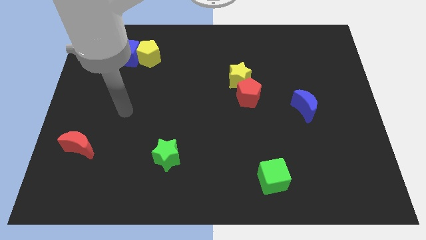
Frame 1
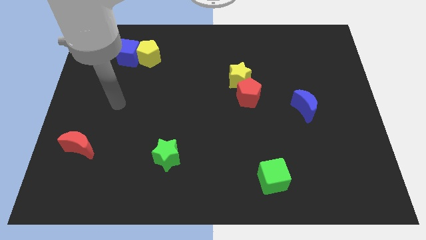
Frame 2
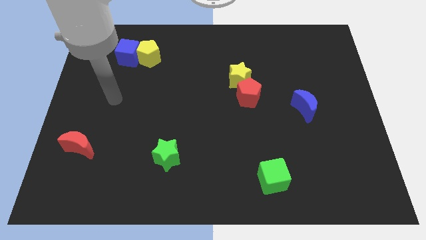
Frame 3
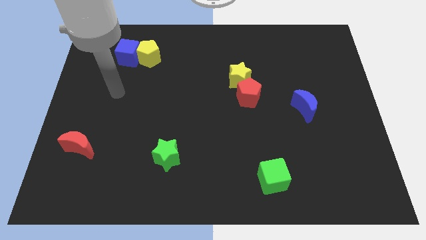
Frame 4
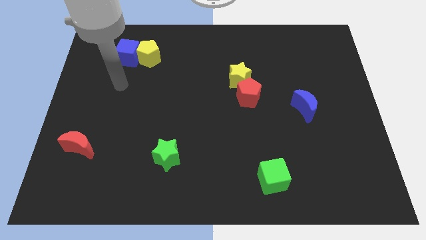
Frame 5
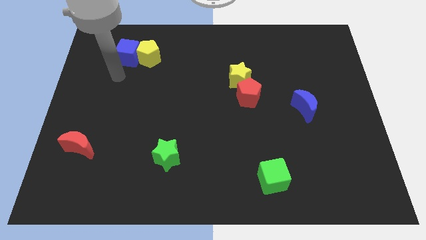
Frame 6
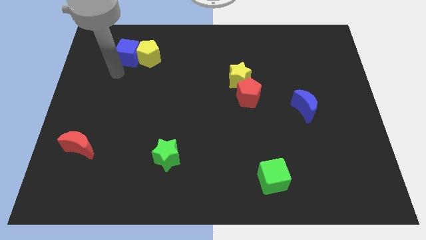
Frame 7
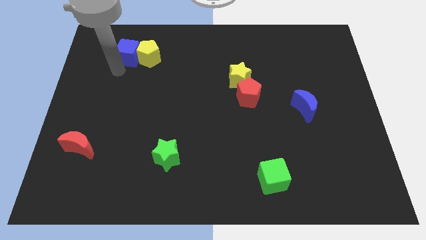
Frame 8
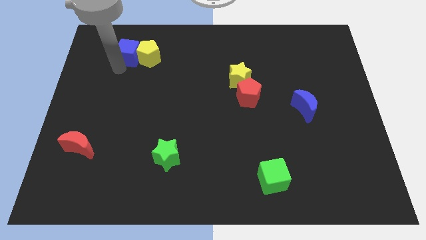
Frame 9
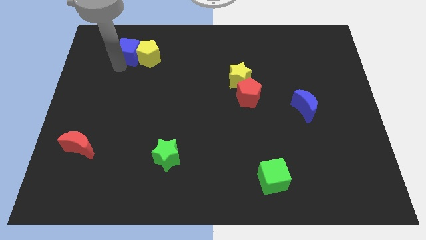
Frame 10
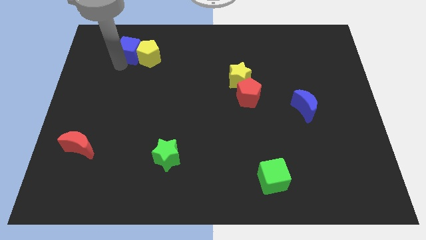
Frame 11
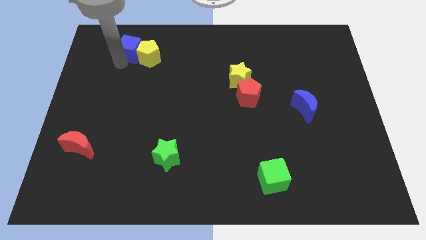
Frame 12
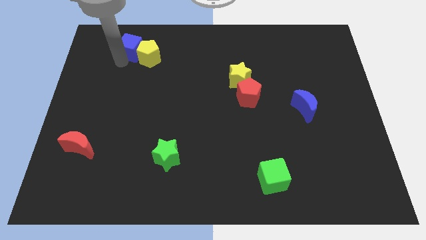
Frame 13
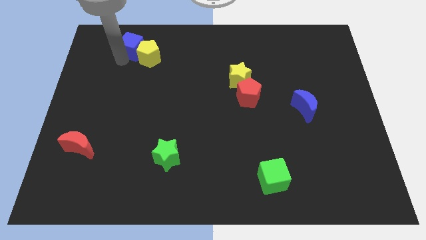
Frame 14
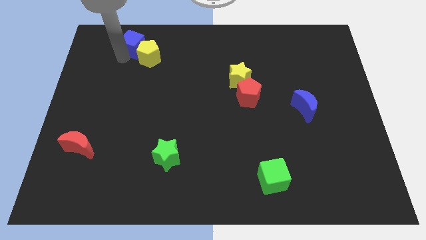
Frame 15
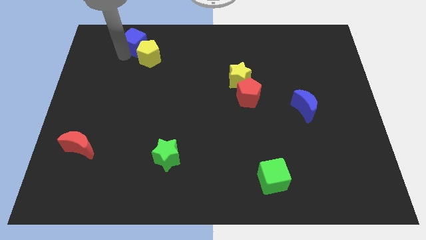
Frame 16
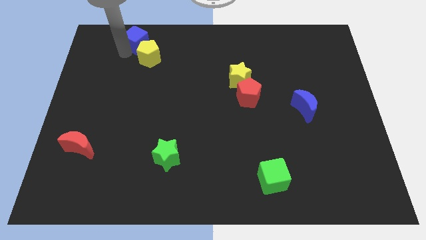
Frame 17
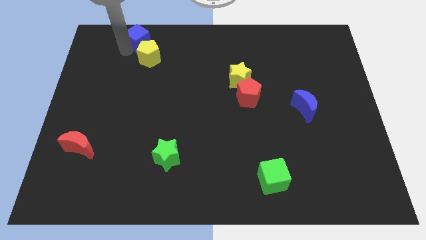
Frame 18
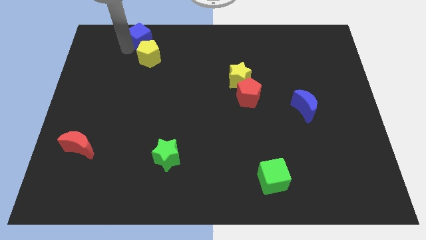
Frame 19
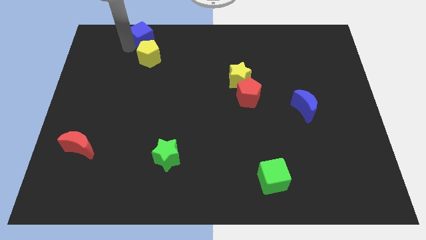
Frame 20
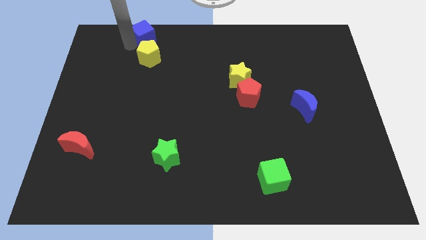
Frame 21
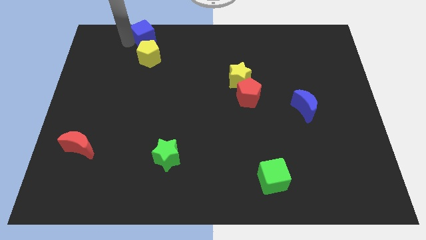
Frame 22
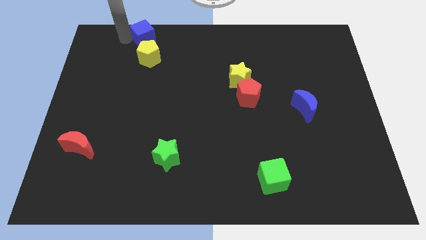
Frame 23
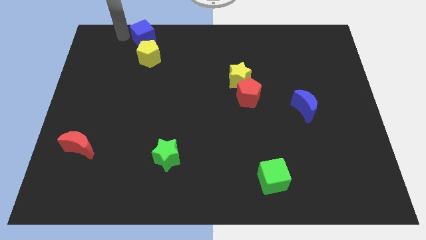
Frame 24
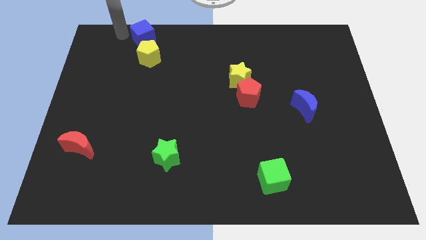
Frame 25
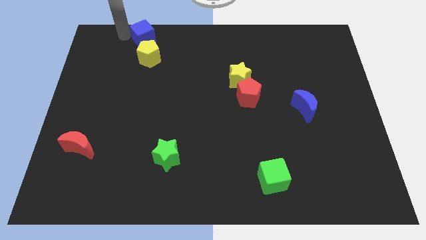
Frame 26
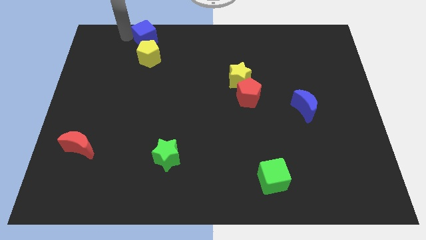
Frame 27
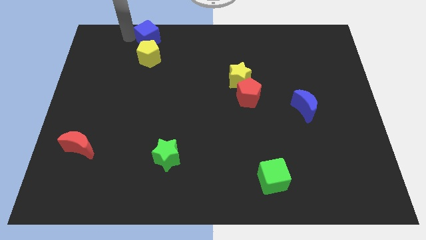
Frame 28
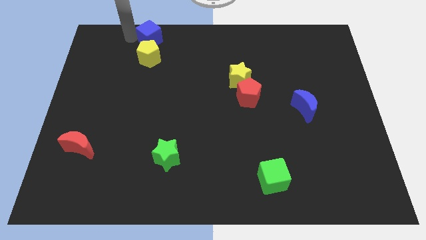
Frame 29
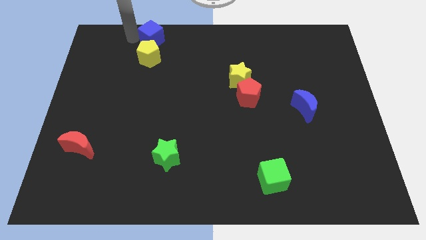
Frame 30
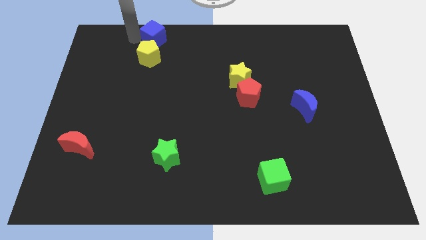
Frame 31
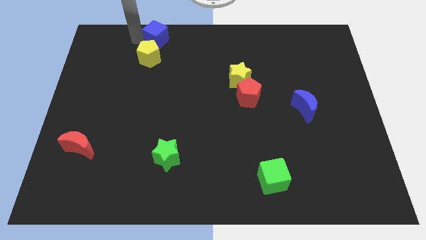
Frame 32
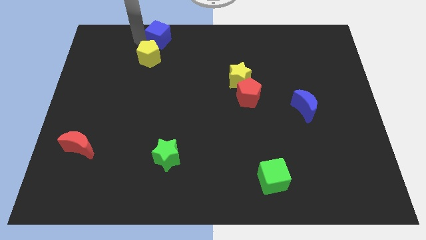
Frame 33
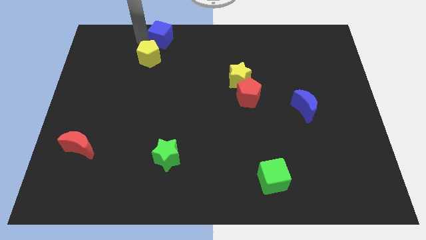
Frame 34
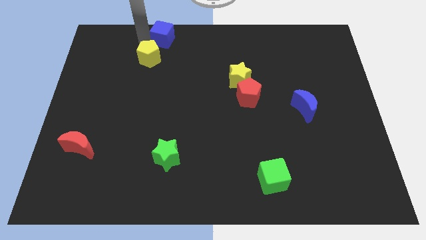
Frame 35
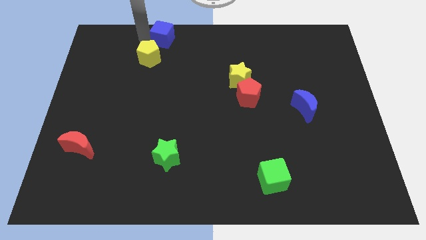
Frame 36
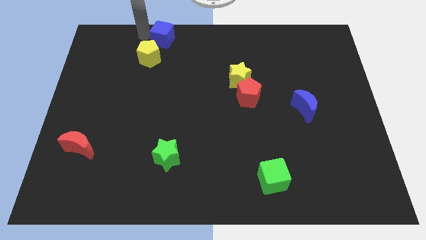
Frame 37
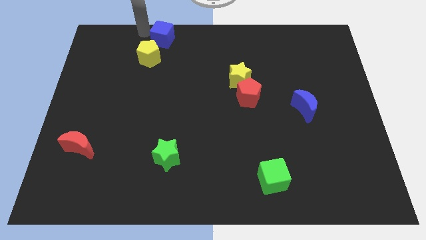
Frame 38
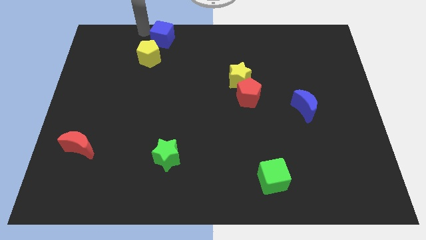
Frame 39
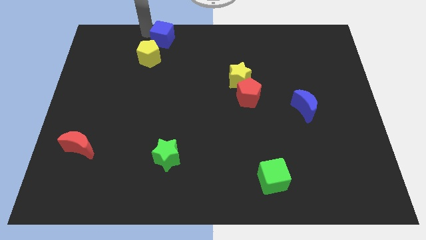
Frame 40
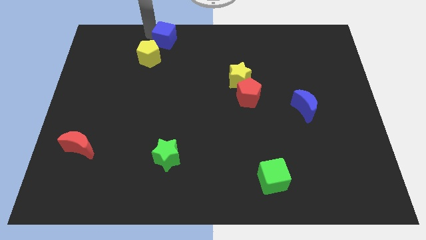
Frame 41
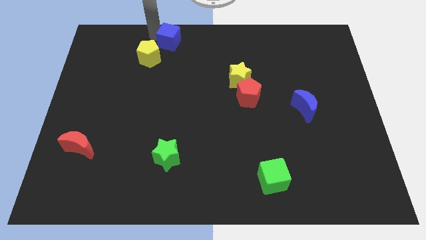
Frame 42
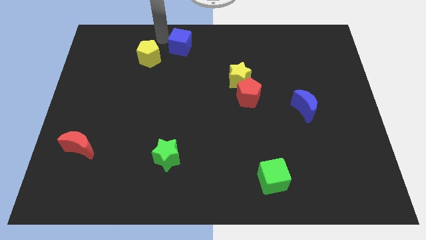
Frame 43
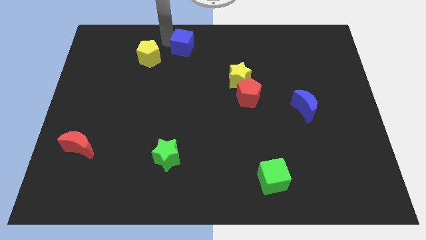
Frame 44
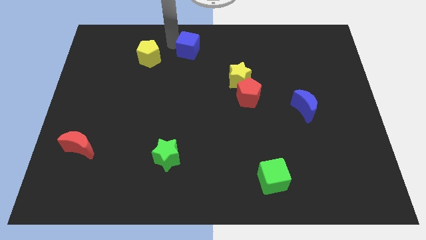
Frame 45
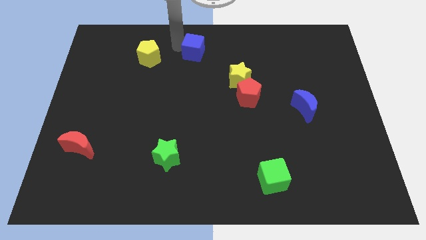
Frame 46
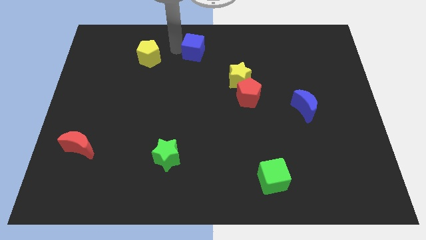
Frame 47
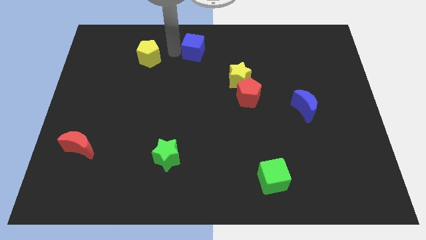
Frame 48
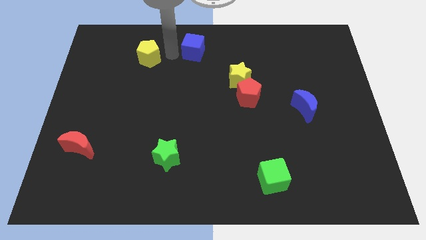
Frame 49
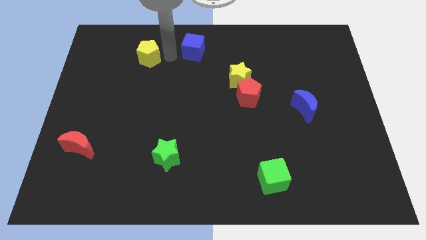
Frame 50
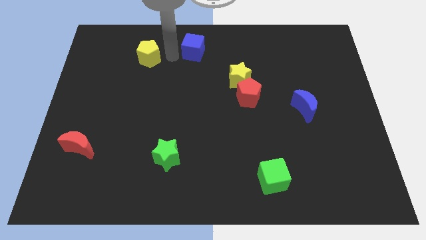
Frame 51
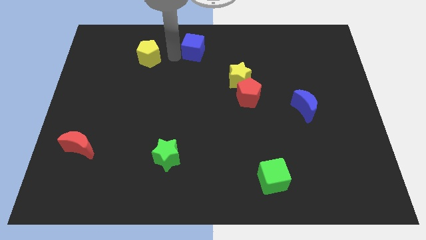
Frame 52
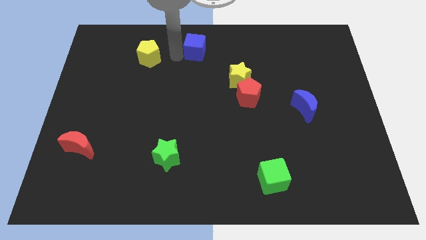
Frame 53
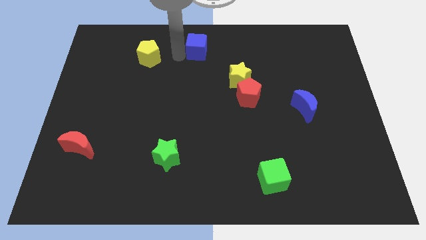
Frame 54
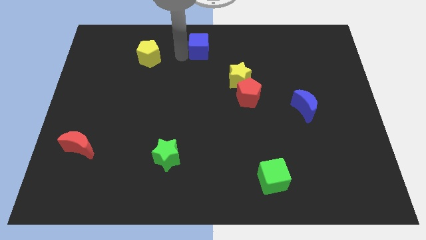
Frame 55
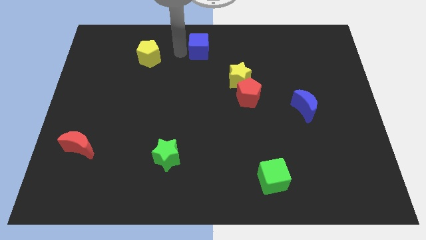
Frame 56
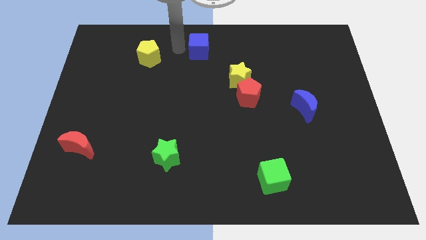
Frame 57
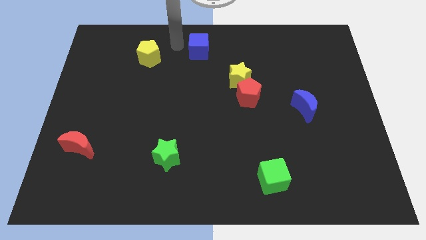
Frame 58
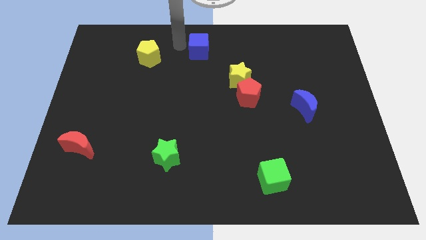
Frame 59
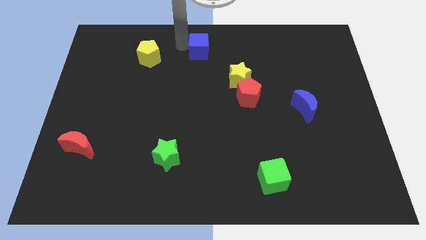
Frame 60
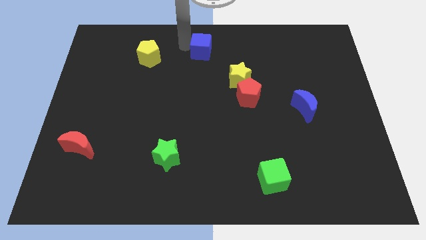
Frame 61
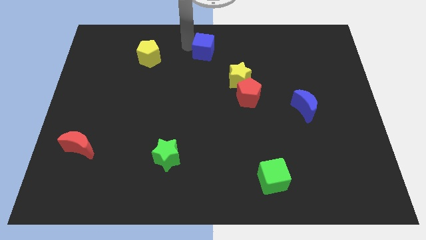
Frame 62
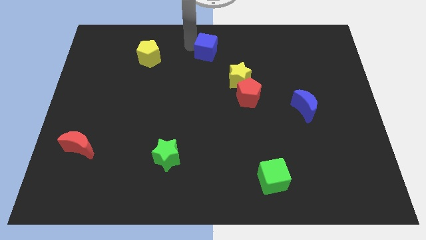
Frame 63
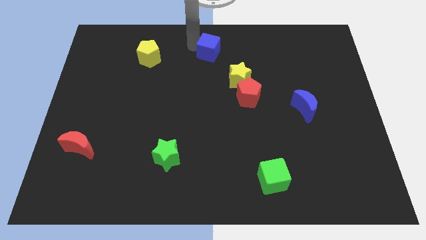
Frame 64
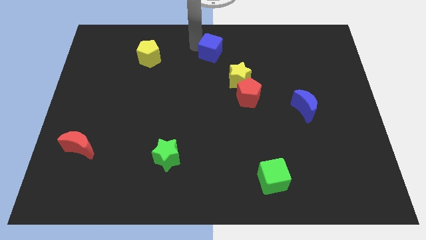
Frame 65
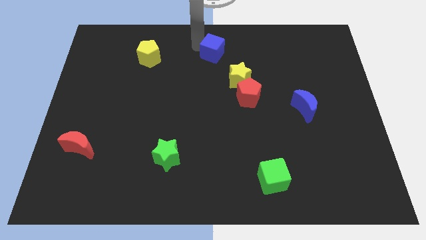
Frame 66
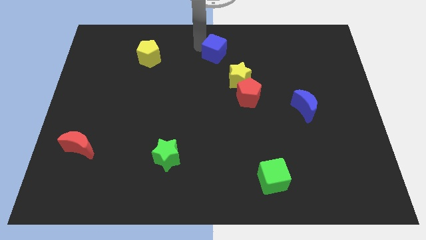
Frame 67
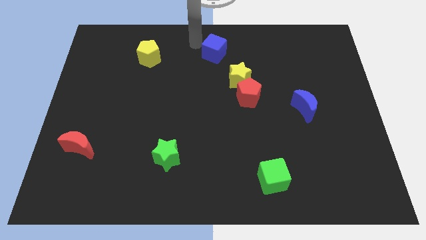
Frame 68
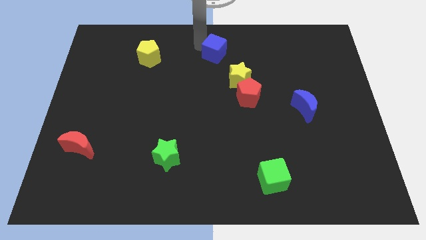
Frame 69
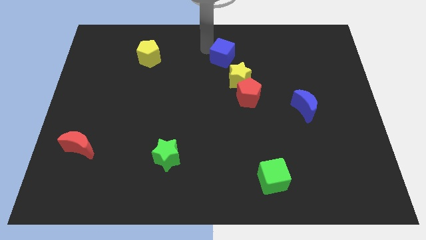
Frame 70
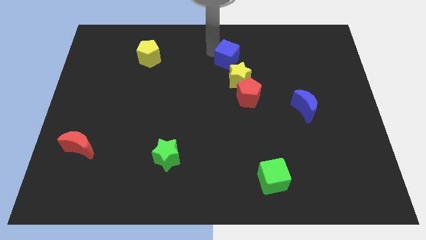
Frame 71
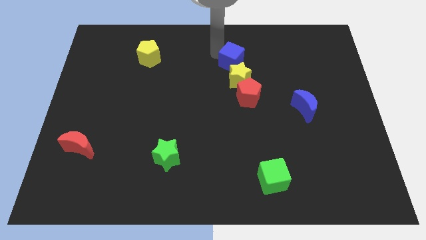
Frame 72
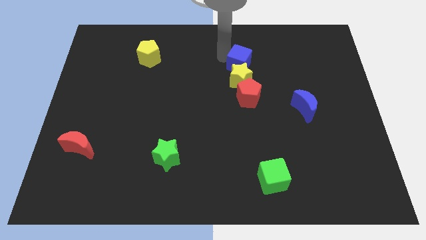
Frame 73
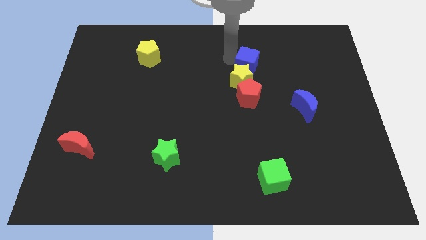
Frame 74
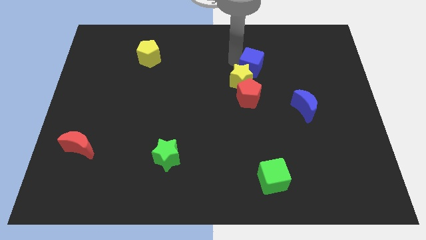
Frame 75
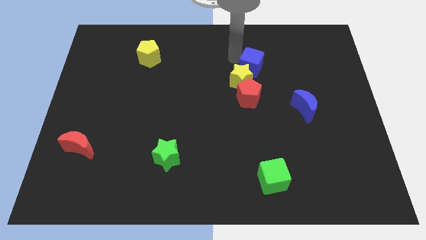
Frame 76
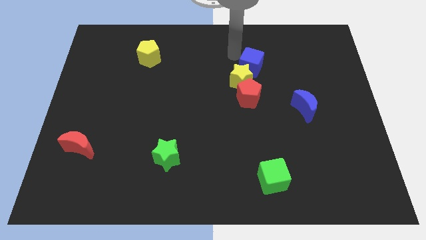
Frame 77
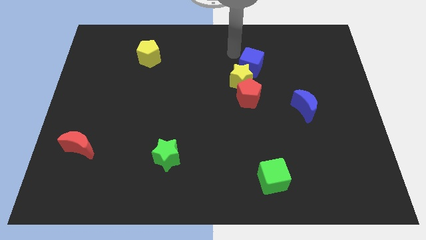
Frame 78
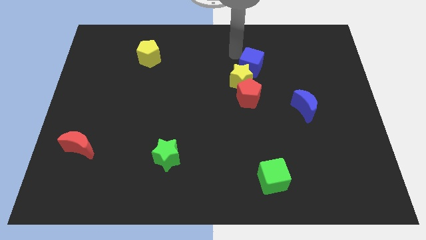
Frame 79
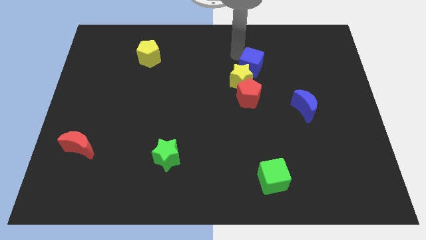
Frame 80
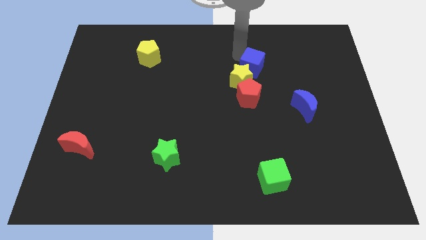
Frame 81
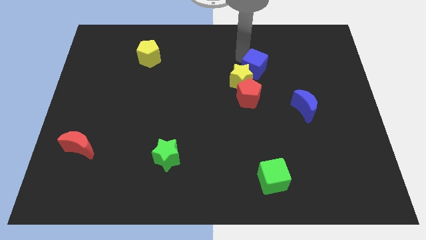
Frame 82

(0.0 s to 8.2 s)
put the blue cube right of the yellow star
